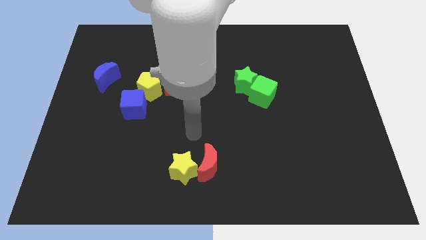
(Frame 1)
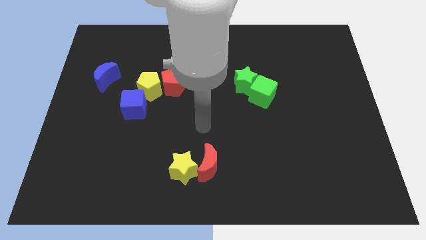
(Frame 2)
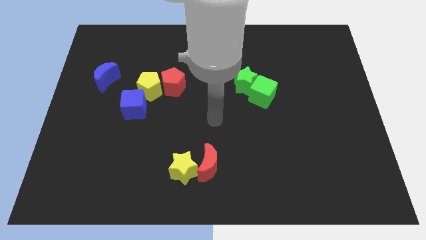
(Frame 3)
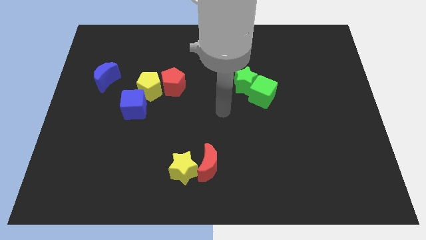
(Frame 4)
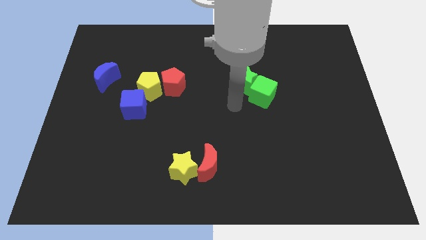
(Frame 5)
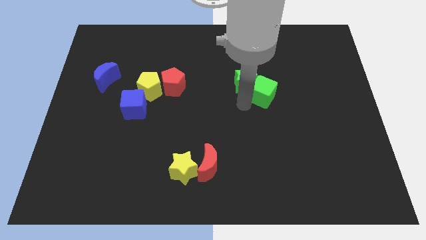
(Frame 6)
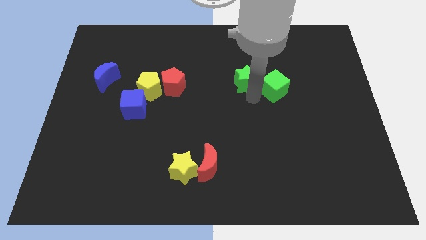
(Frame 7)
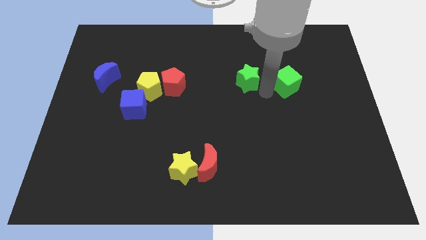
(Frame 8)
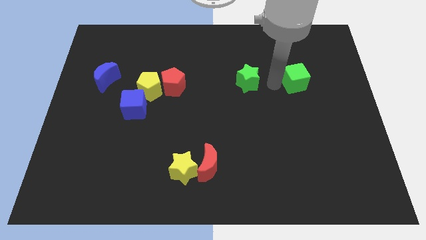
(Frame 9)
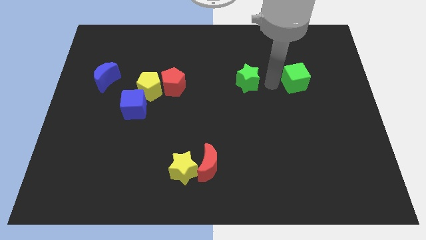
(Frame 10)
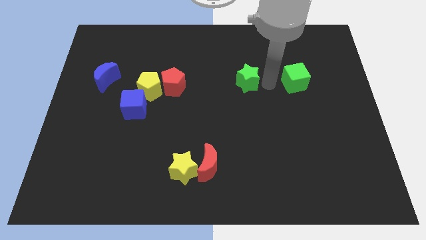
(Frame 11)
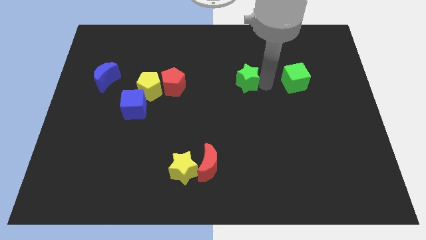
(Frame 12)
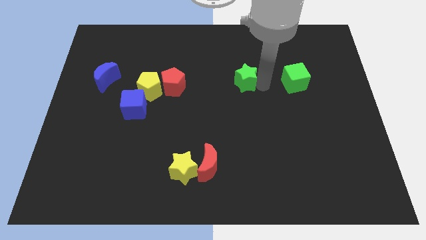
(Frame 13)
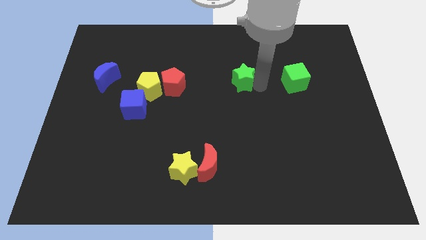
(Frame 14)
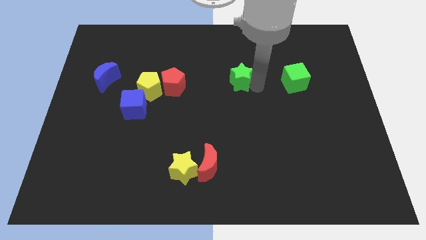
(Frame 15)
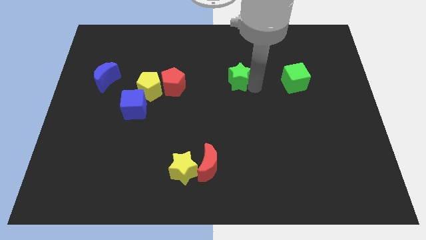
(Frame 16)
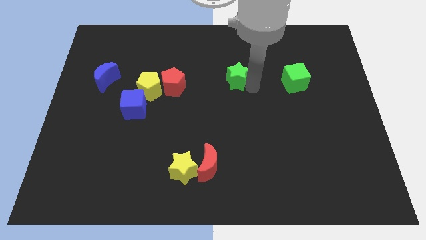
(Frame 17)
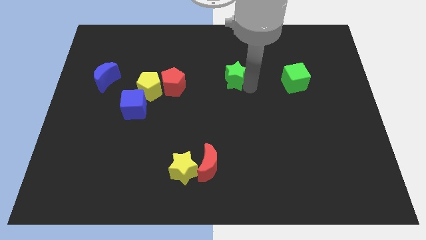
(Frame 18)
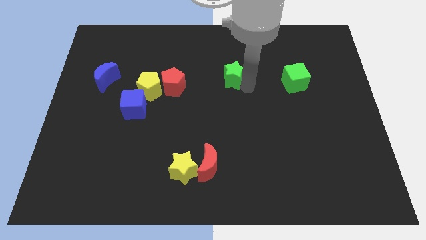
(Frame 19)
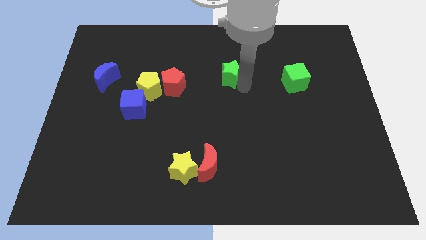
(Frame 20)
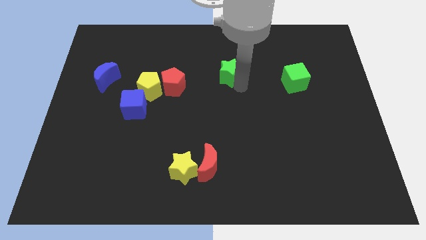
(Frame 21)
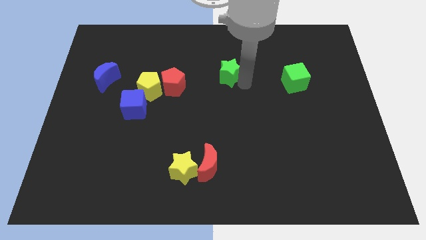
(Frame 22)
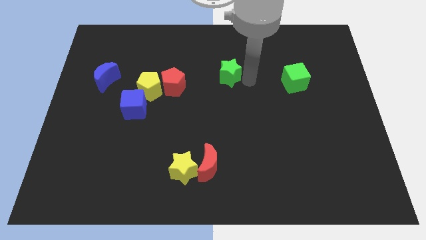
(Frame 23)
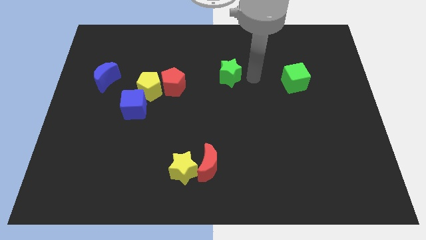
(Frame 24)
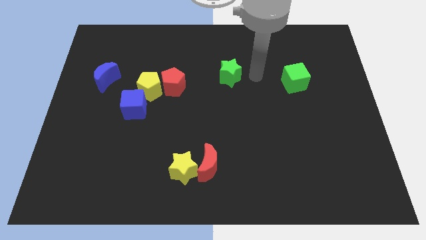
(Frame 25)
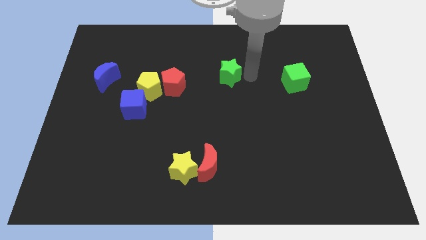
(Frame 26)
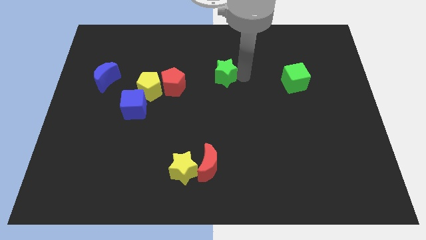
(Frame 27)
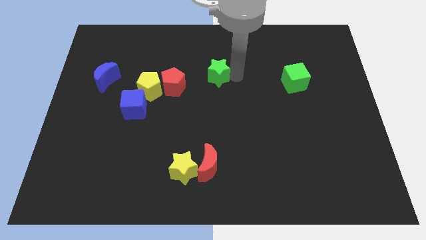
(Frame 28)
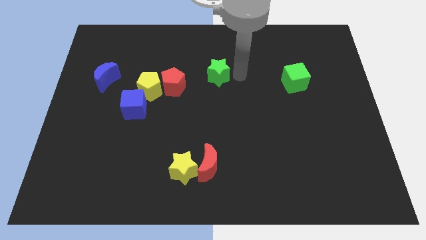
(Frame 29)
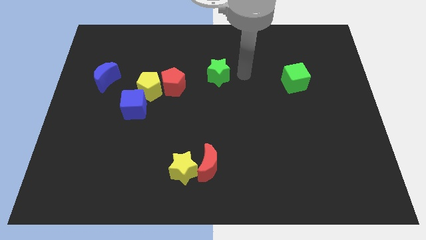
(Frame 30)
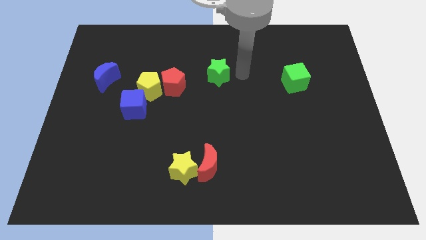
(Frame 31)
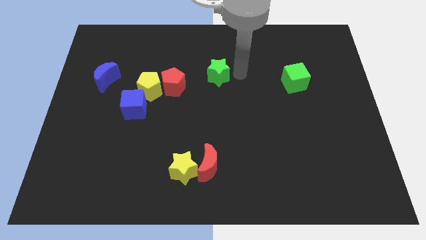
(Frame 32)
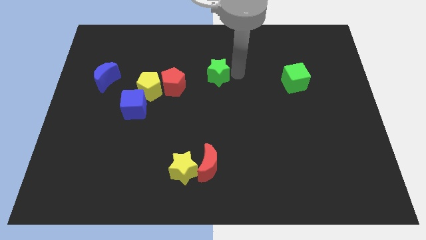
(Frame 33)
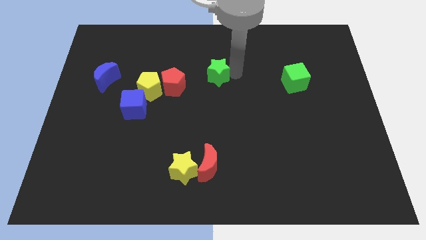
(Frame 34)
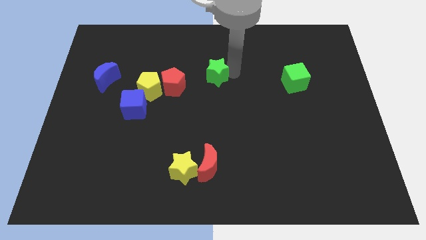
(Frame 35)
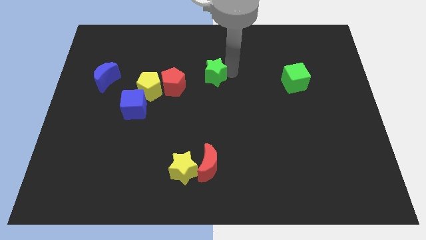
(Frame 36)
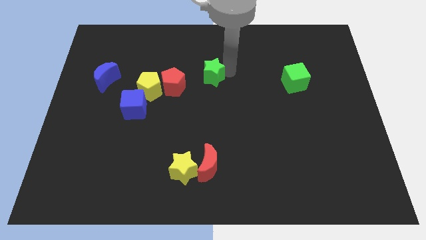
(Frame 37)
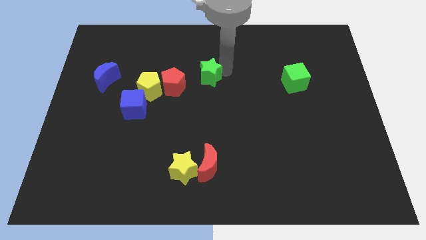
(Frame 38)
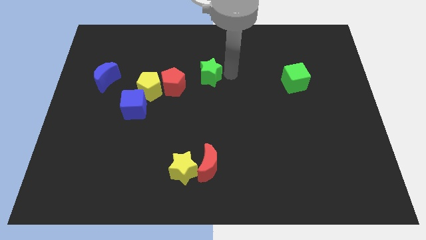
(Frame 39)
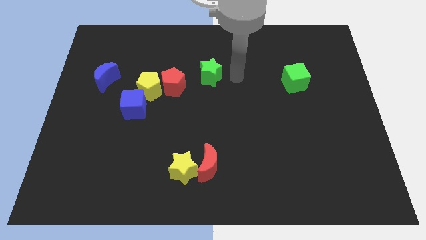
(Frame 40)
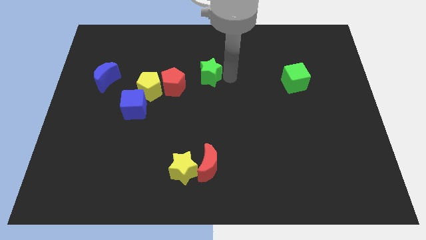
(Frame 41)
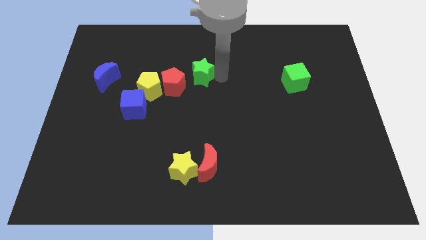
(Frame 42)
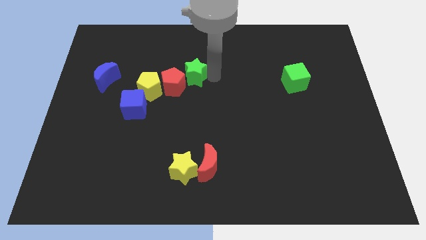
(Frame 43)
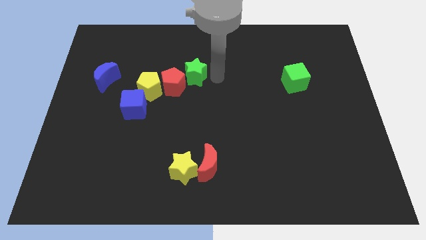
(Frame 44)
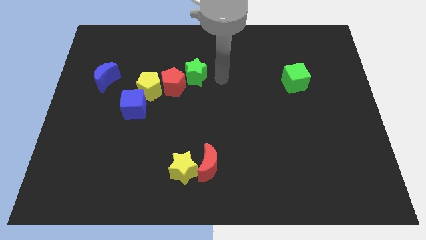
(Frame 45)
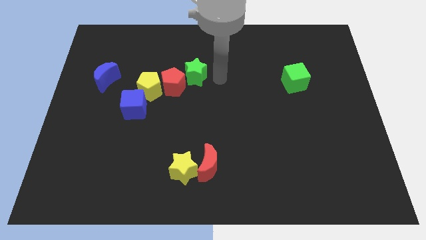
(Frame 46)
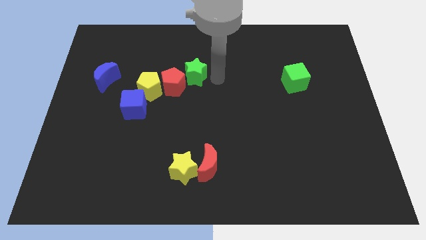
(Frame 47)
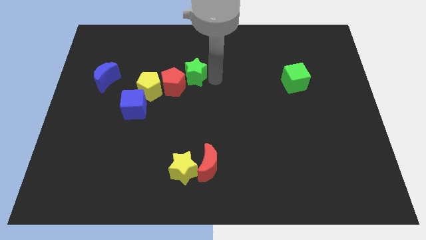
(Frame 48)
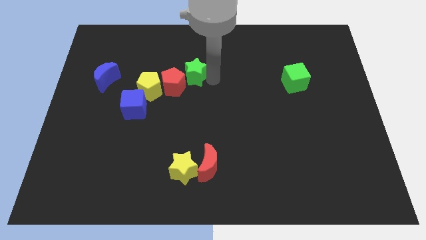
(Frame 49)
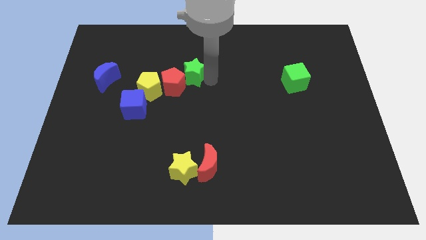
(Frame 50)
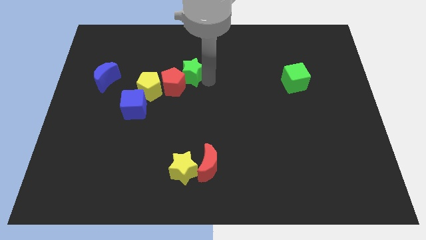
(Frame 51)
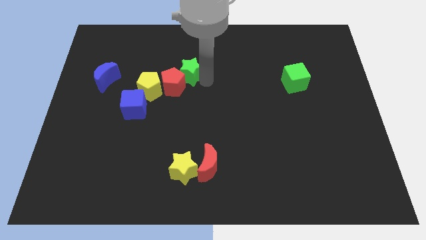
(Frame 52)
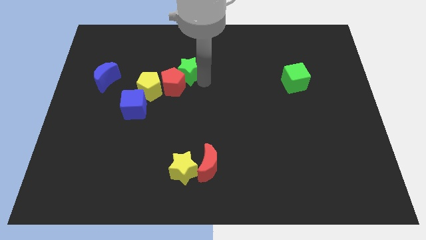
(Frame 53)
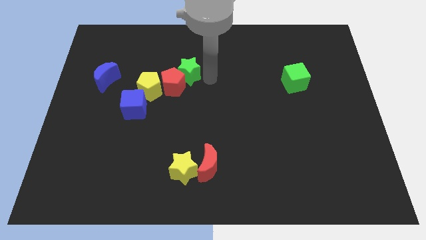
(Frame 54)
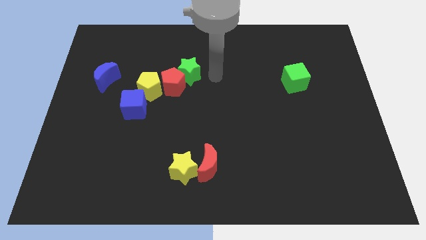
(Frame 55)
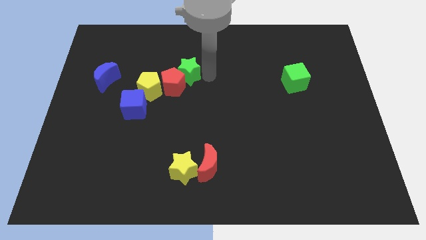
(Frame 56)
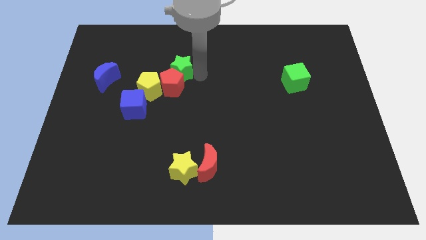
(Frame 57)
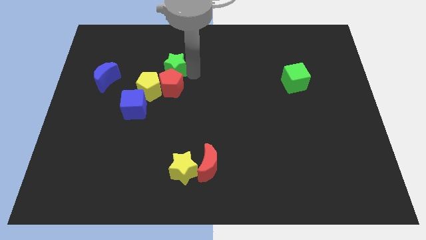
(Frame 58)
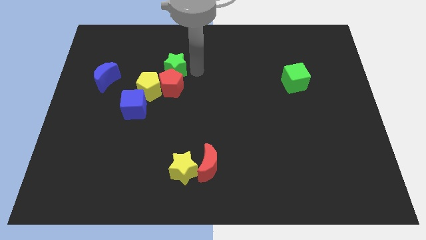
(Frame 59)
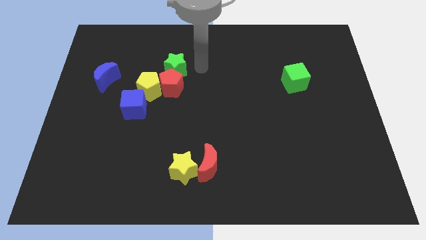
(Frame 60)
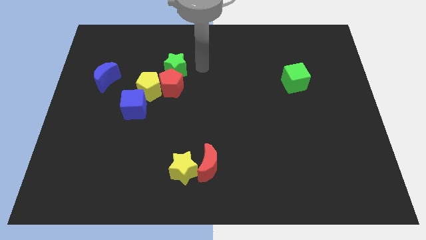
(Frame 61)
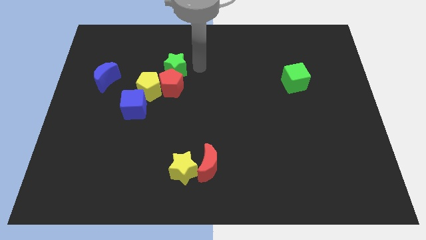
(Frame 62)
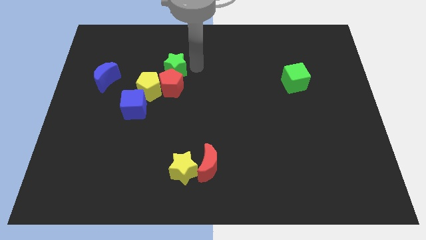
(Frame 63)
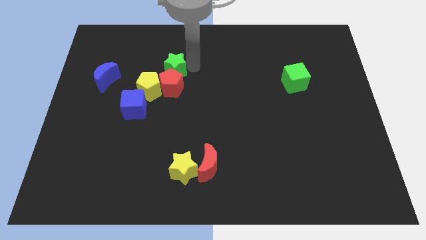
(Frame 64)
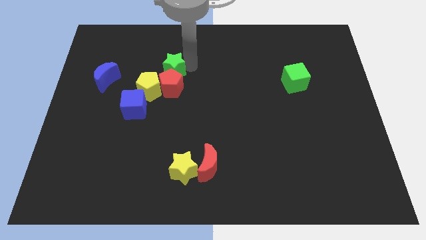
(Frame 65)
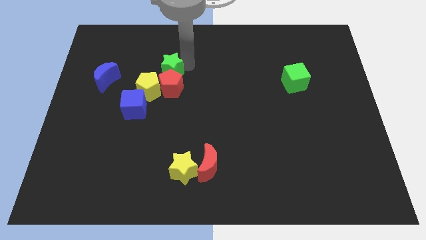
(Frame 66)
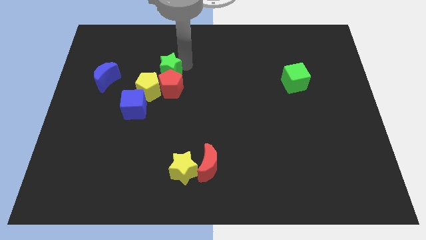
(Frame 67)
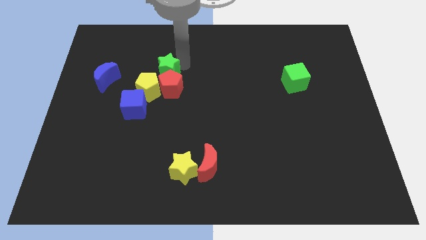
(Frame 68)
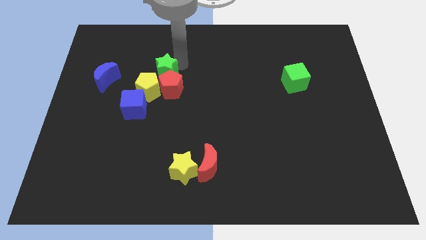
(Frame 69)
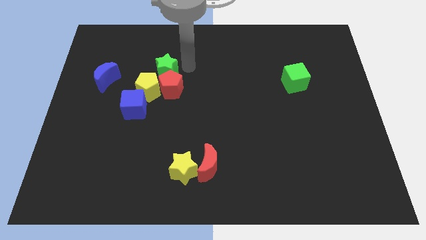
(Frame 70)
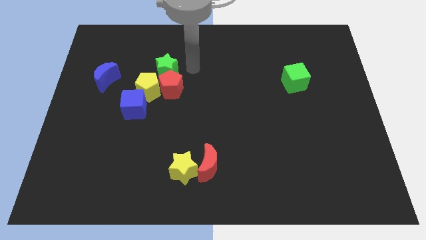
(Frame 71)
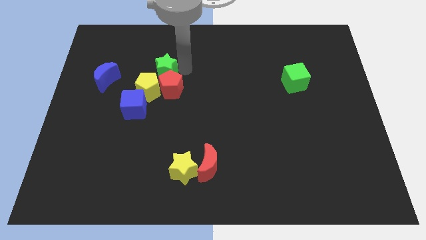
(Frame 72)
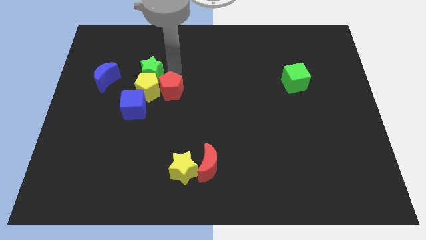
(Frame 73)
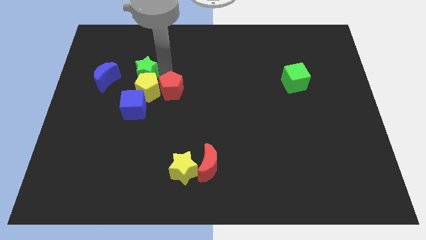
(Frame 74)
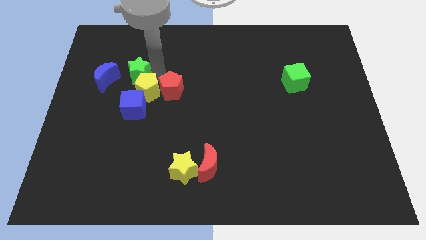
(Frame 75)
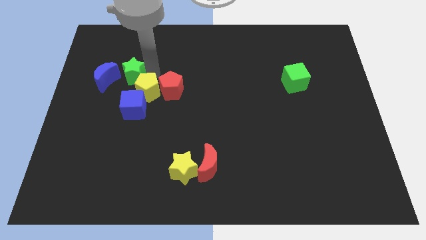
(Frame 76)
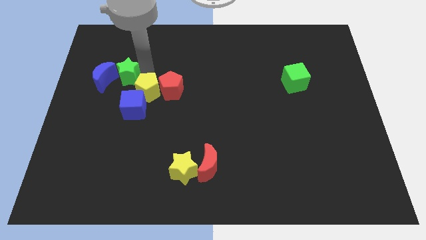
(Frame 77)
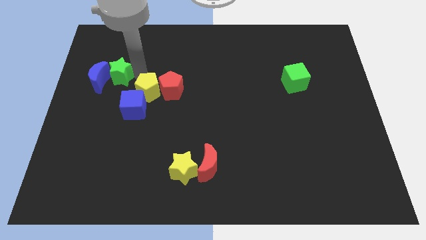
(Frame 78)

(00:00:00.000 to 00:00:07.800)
push the green star next to the blue moon
